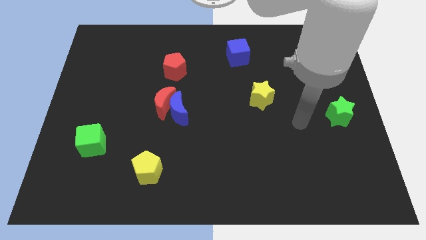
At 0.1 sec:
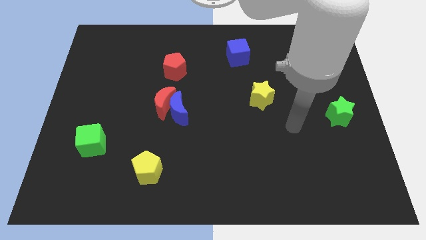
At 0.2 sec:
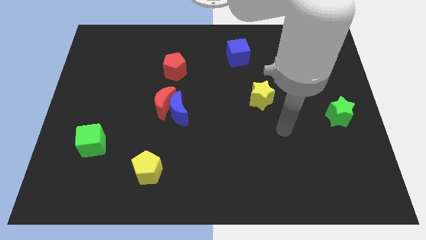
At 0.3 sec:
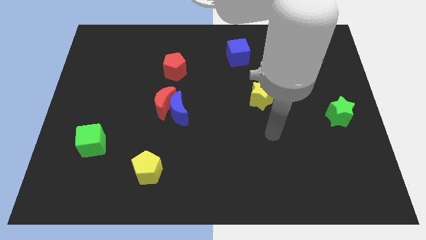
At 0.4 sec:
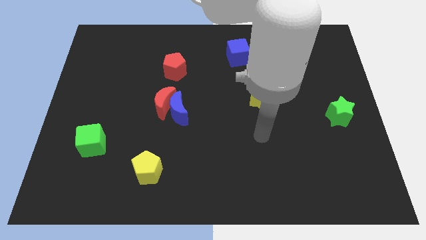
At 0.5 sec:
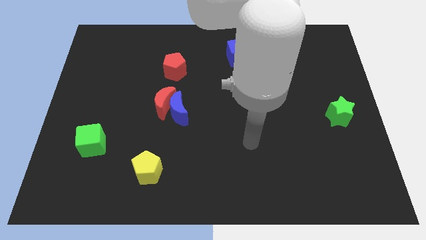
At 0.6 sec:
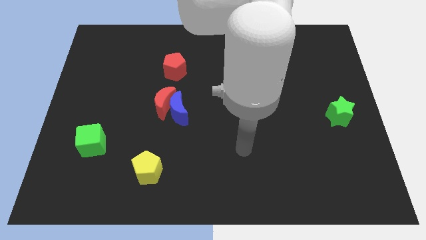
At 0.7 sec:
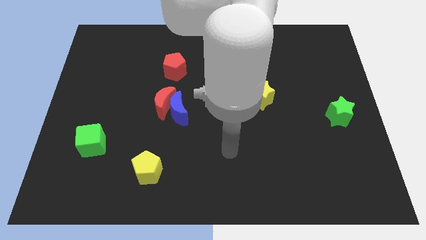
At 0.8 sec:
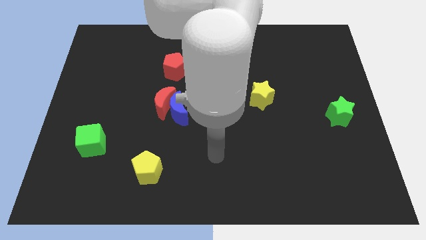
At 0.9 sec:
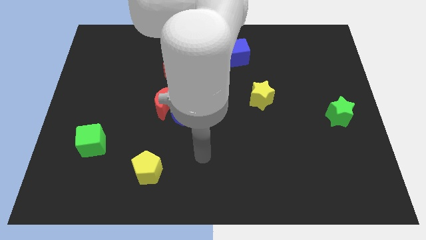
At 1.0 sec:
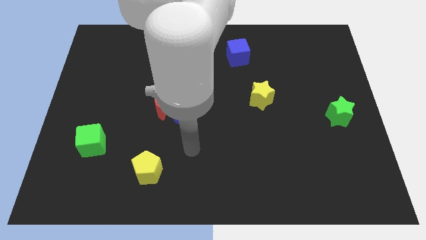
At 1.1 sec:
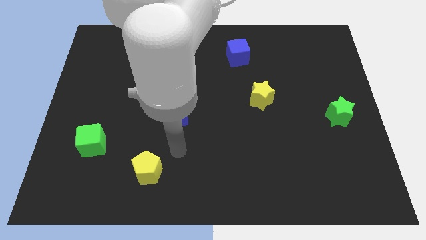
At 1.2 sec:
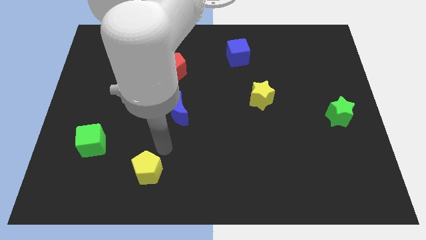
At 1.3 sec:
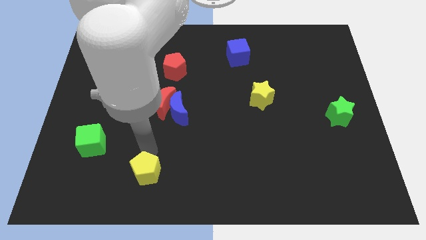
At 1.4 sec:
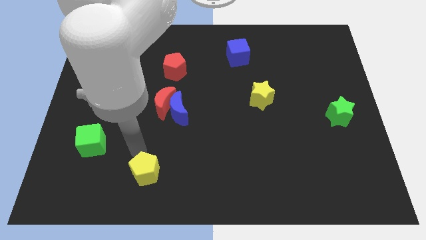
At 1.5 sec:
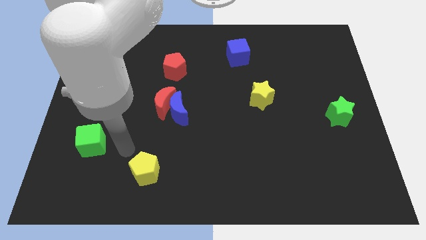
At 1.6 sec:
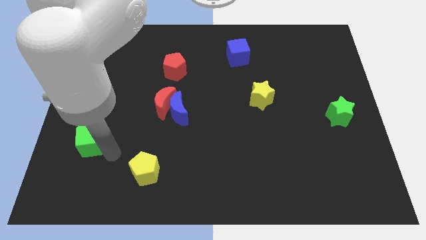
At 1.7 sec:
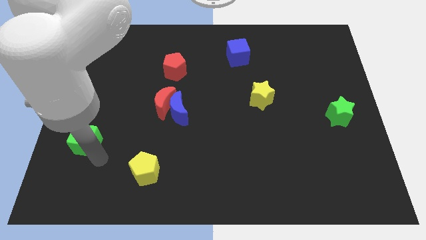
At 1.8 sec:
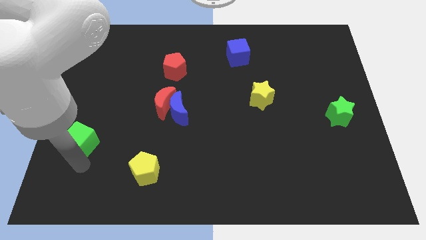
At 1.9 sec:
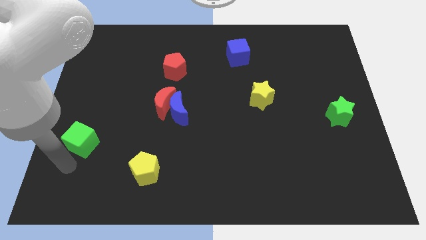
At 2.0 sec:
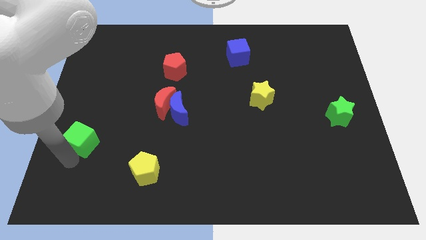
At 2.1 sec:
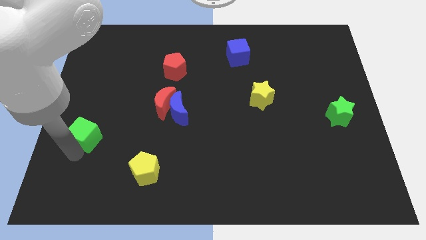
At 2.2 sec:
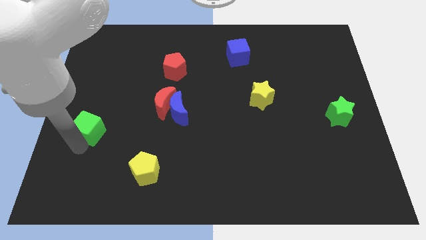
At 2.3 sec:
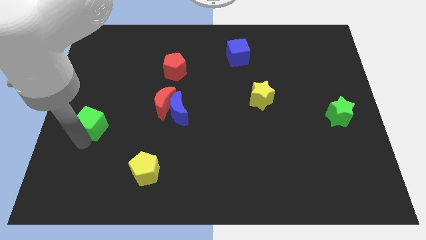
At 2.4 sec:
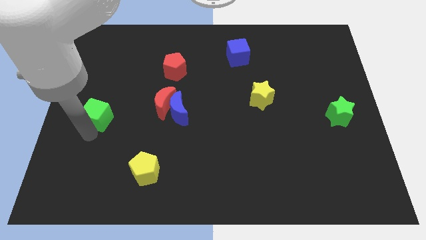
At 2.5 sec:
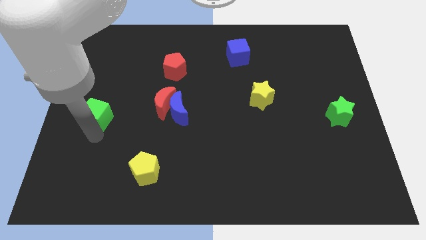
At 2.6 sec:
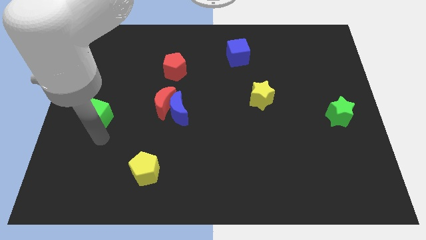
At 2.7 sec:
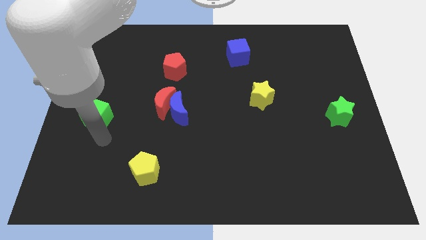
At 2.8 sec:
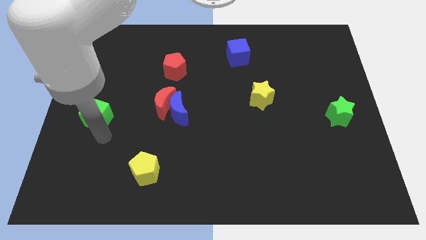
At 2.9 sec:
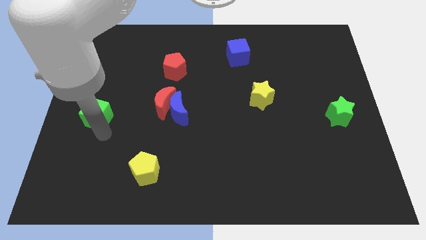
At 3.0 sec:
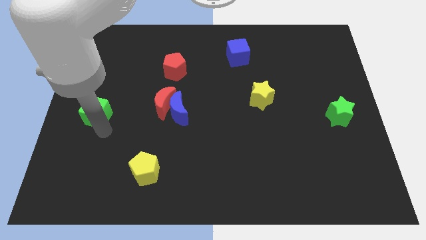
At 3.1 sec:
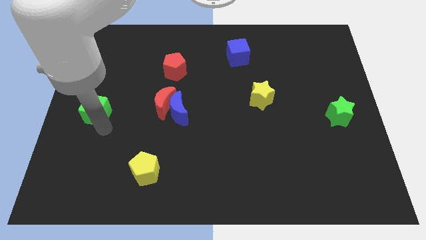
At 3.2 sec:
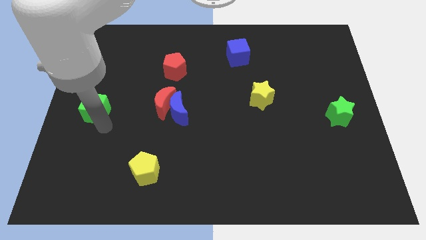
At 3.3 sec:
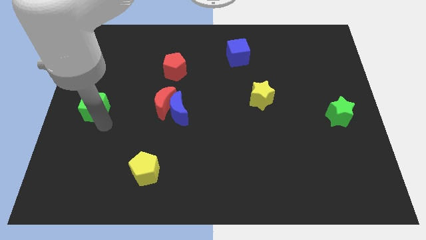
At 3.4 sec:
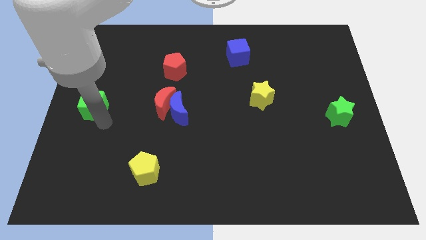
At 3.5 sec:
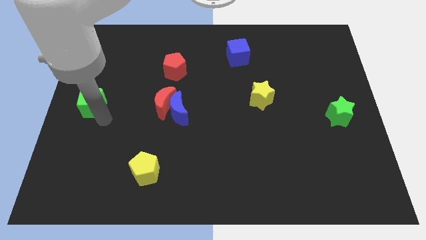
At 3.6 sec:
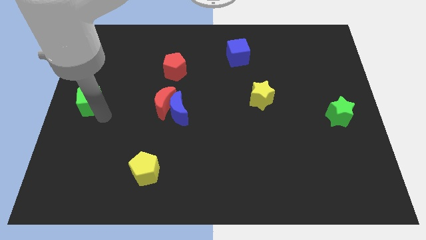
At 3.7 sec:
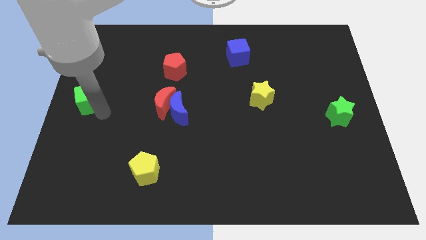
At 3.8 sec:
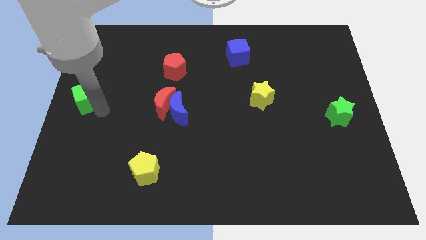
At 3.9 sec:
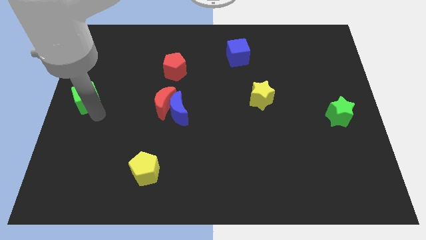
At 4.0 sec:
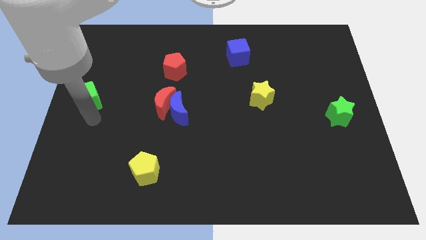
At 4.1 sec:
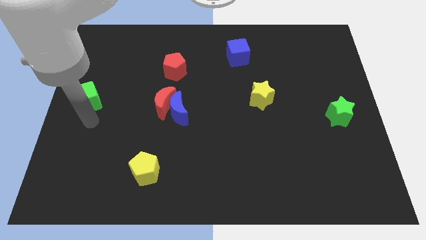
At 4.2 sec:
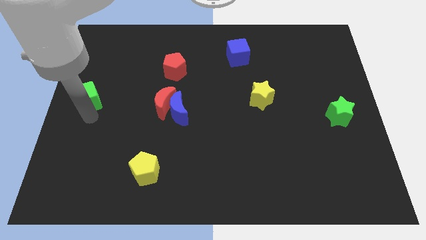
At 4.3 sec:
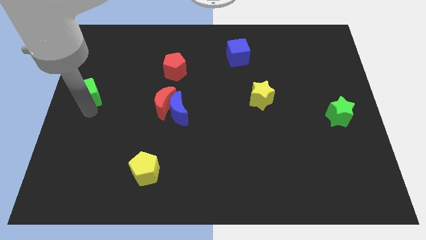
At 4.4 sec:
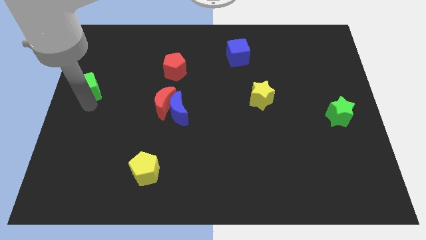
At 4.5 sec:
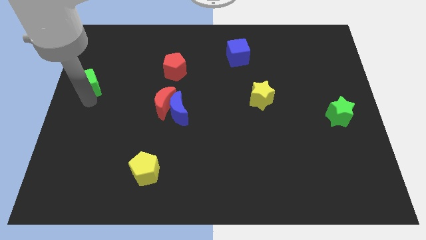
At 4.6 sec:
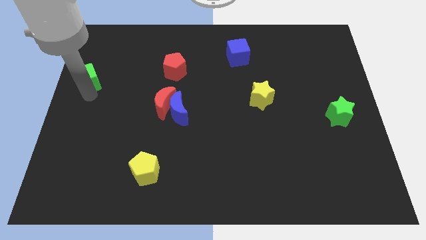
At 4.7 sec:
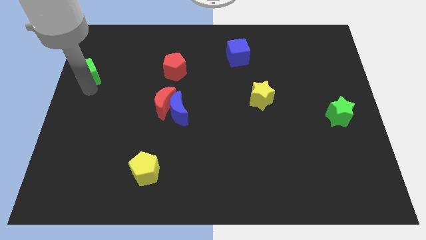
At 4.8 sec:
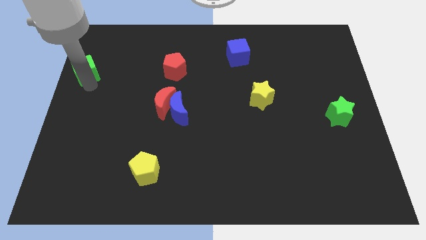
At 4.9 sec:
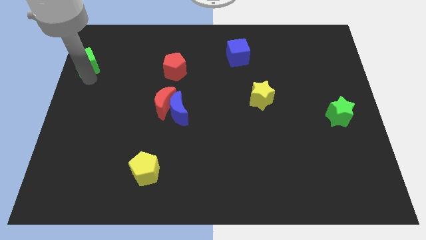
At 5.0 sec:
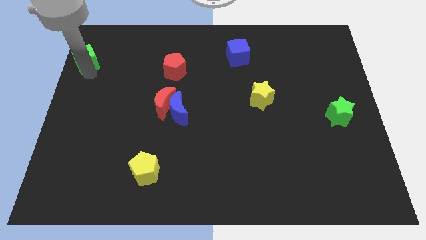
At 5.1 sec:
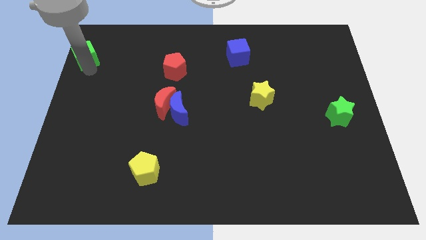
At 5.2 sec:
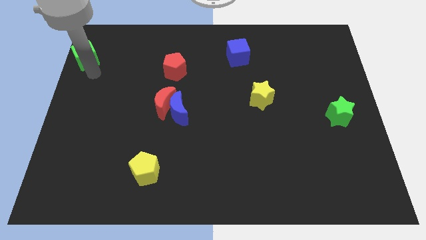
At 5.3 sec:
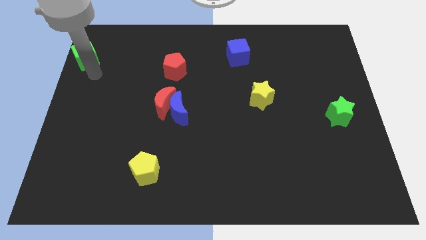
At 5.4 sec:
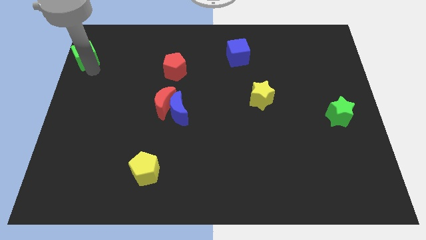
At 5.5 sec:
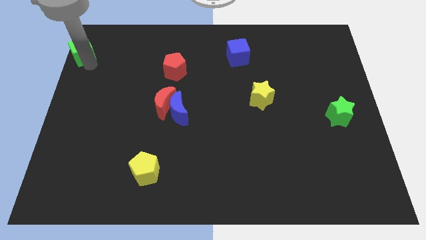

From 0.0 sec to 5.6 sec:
push the green cube to the upper left corner

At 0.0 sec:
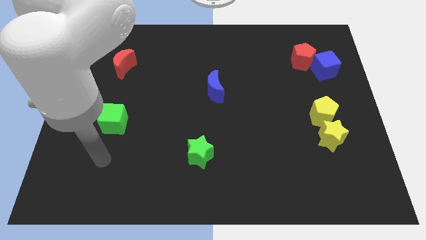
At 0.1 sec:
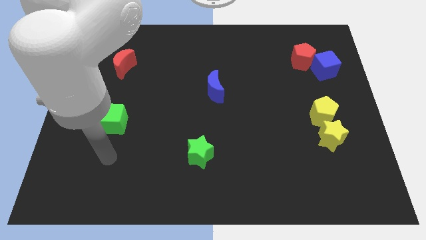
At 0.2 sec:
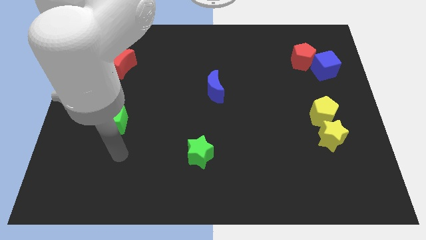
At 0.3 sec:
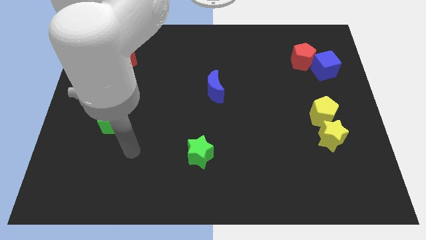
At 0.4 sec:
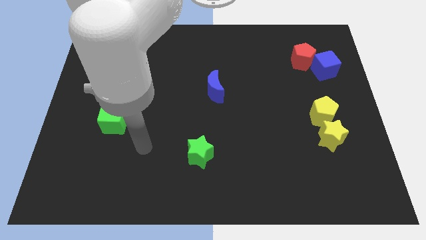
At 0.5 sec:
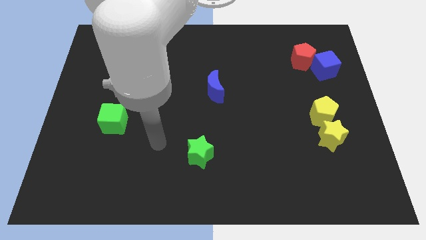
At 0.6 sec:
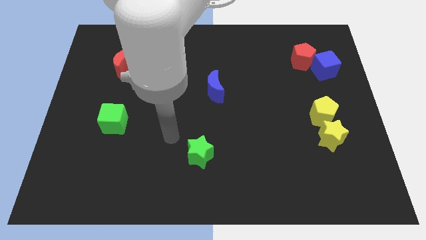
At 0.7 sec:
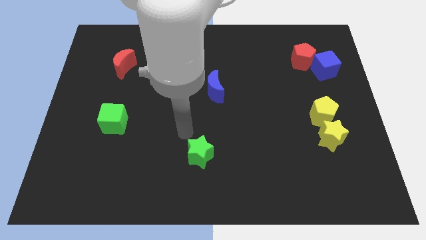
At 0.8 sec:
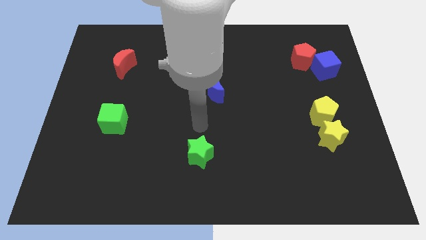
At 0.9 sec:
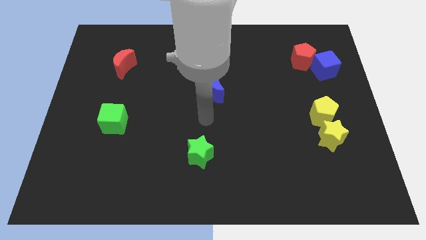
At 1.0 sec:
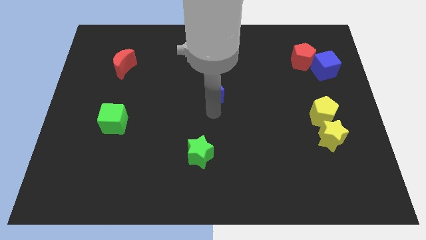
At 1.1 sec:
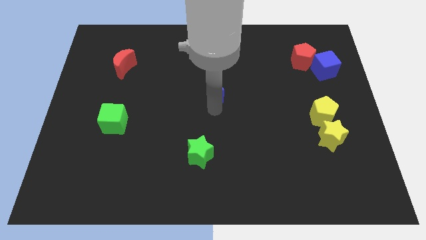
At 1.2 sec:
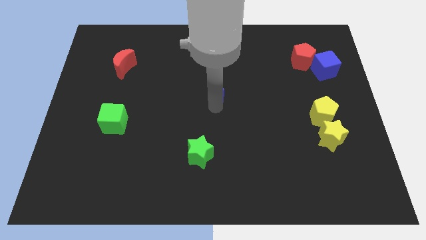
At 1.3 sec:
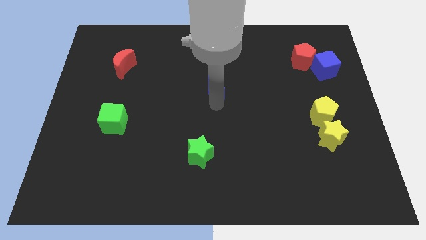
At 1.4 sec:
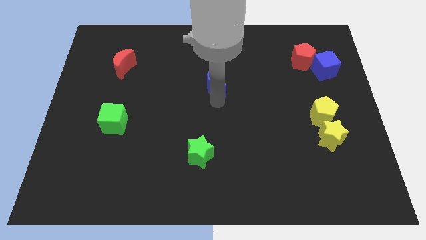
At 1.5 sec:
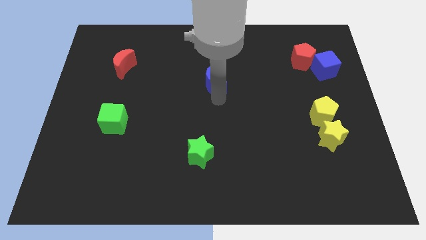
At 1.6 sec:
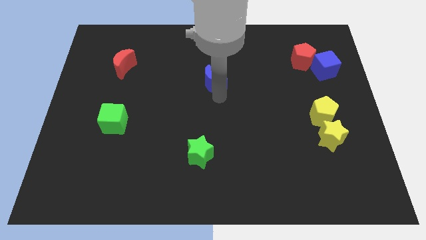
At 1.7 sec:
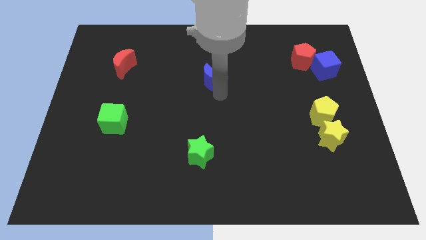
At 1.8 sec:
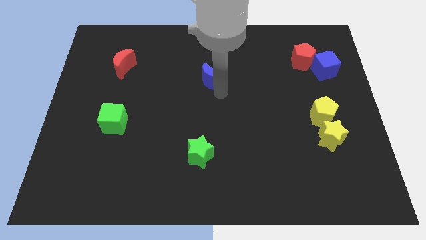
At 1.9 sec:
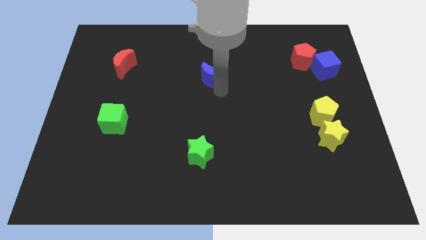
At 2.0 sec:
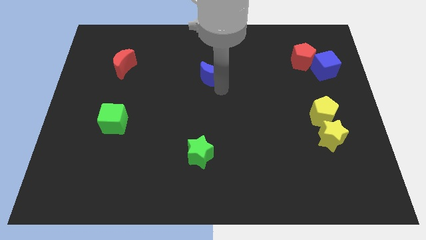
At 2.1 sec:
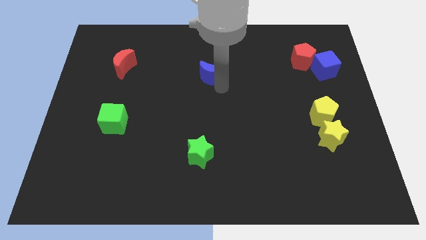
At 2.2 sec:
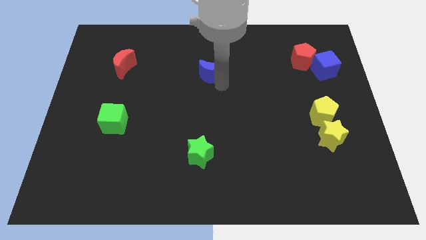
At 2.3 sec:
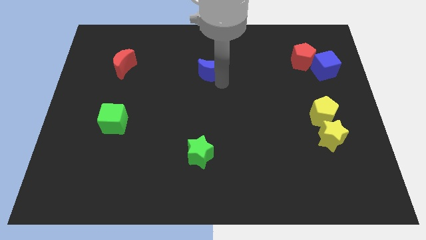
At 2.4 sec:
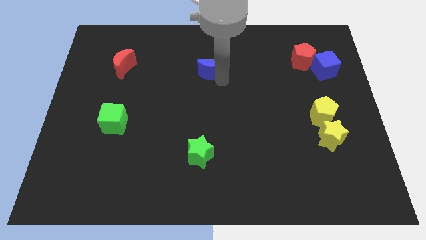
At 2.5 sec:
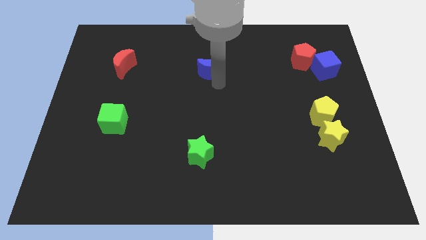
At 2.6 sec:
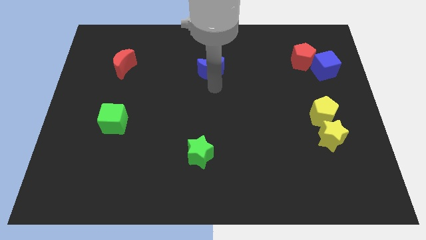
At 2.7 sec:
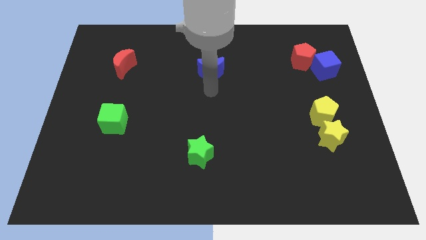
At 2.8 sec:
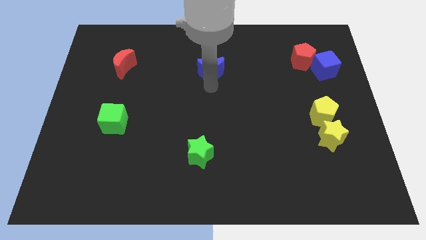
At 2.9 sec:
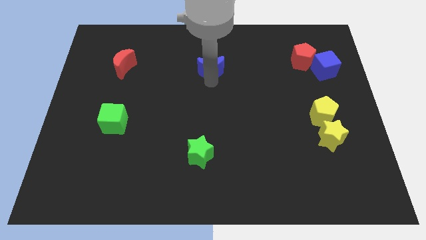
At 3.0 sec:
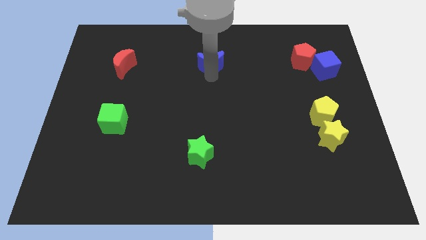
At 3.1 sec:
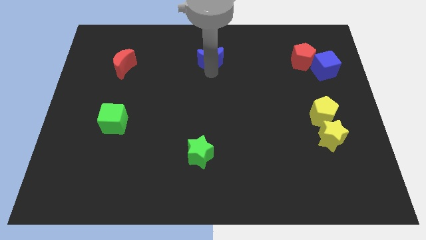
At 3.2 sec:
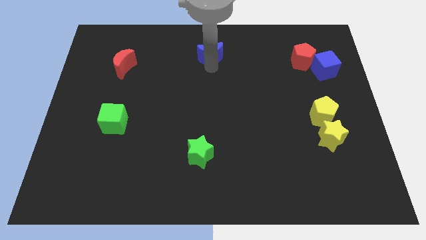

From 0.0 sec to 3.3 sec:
slide the blue moon to the top
